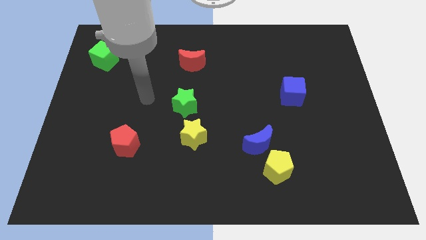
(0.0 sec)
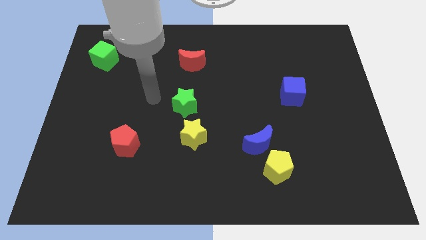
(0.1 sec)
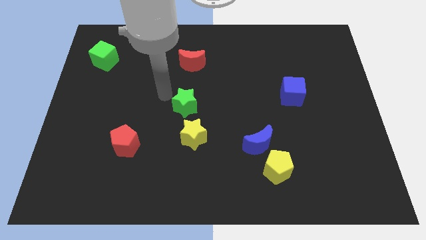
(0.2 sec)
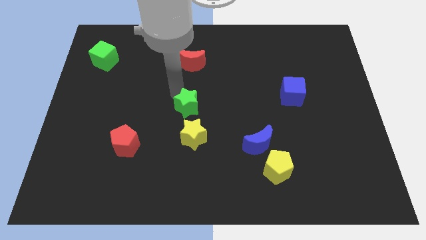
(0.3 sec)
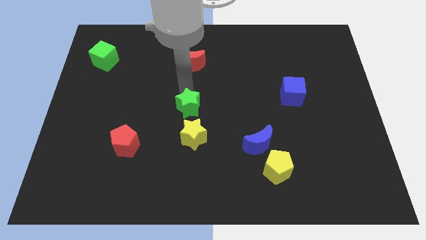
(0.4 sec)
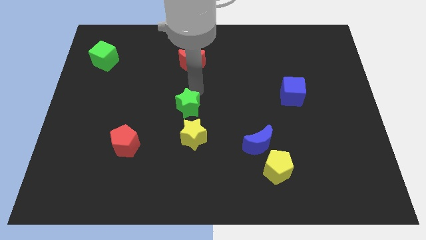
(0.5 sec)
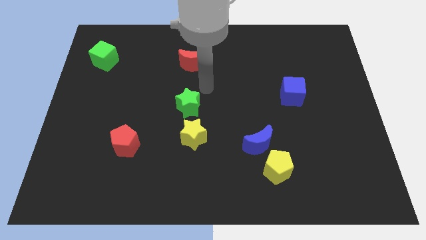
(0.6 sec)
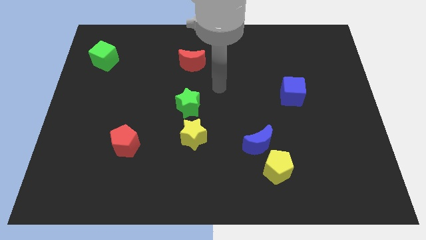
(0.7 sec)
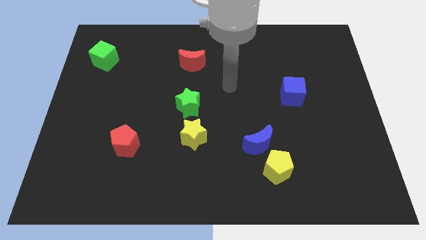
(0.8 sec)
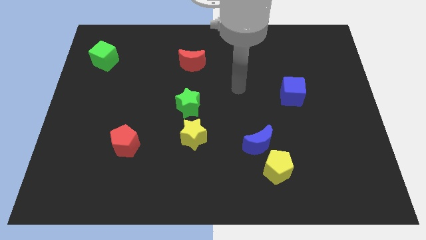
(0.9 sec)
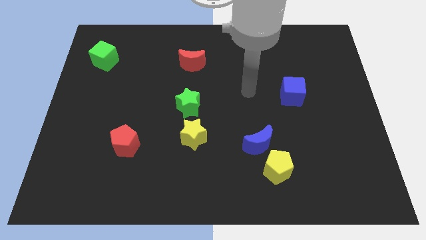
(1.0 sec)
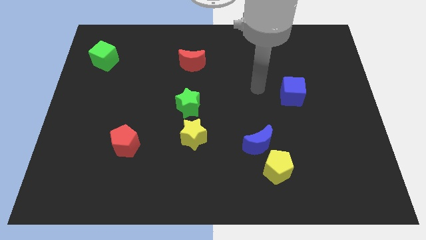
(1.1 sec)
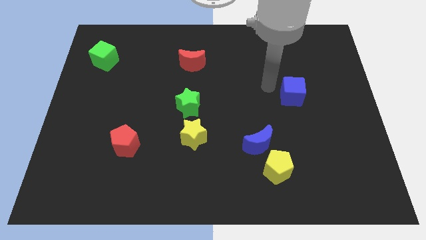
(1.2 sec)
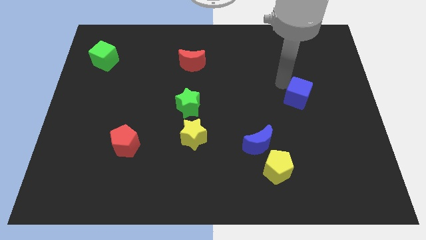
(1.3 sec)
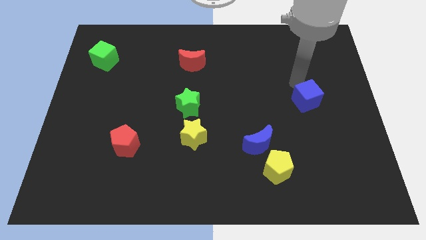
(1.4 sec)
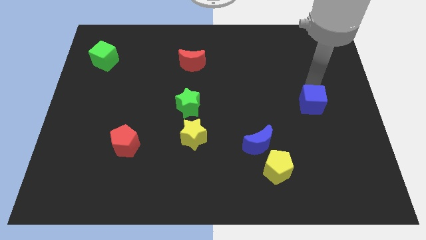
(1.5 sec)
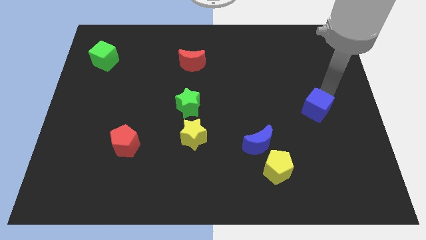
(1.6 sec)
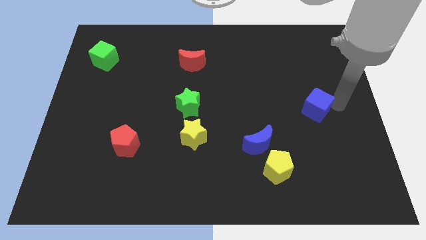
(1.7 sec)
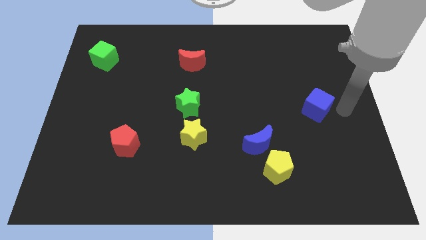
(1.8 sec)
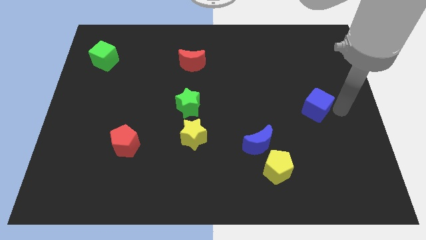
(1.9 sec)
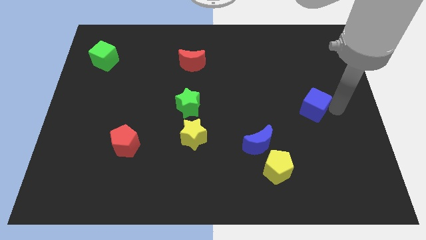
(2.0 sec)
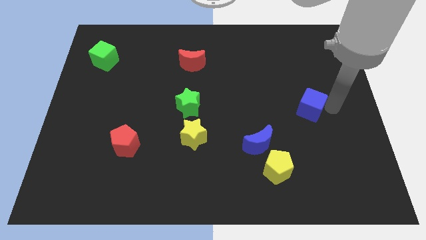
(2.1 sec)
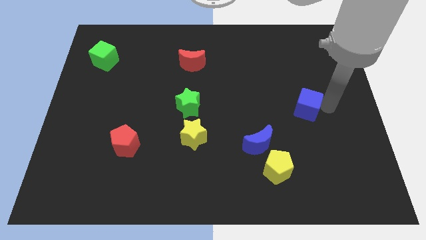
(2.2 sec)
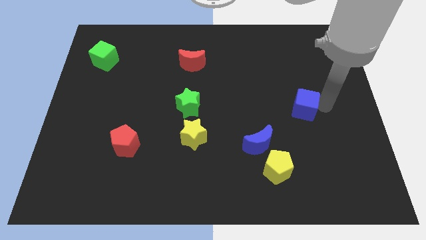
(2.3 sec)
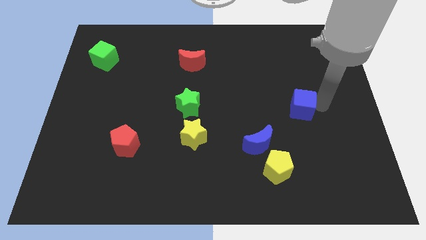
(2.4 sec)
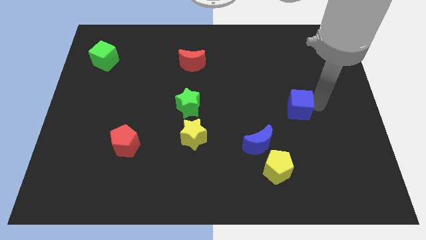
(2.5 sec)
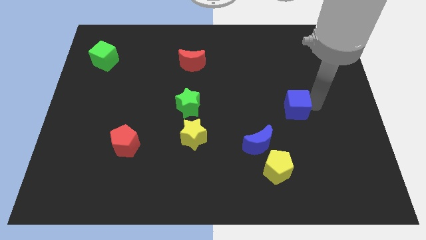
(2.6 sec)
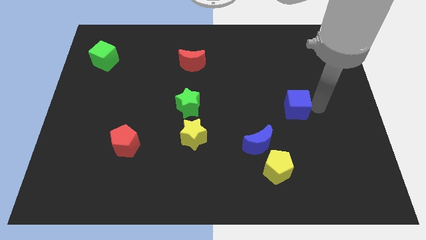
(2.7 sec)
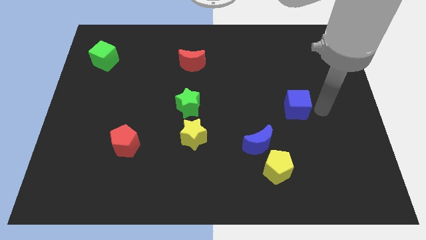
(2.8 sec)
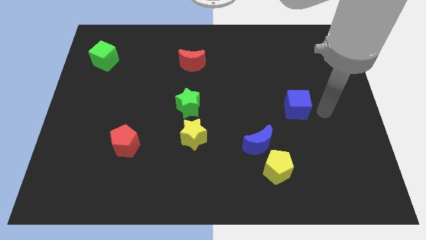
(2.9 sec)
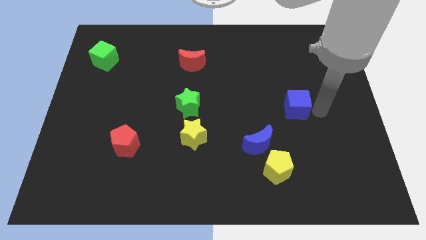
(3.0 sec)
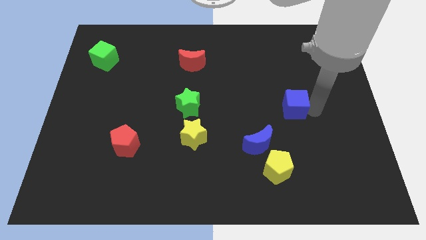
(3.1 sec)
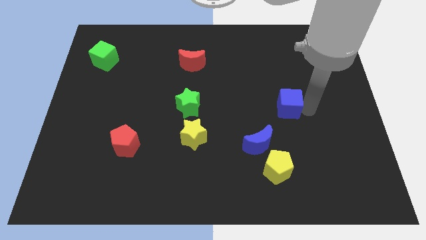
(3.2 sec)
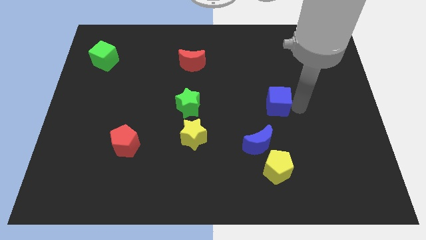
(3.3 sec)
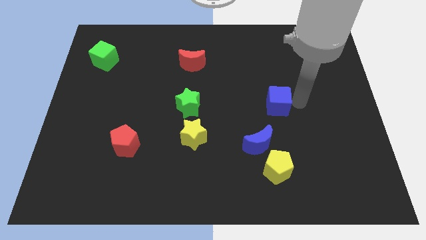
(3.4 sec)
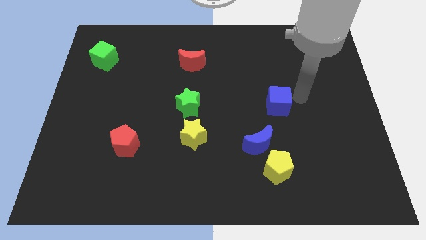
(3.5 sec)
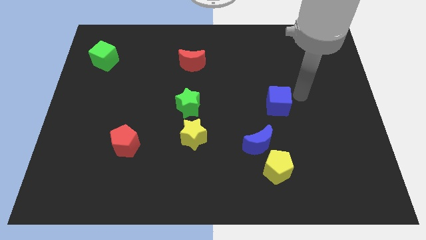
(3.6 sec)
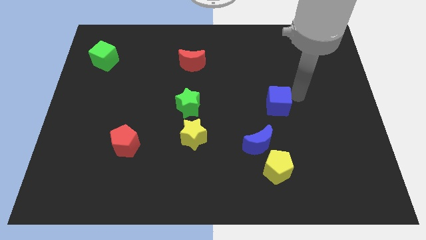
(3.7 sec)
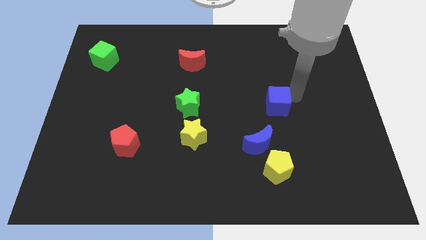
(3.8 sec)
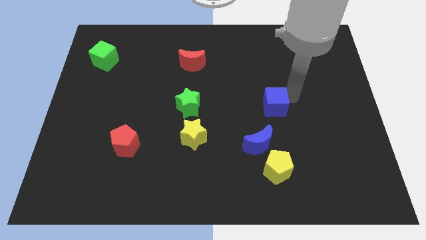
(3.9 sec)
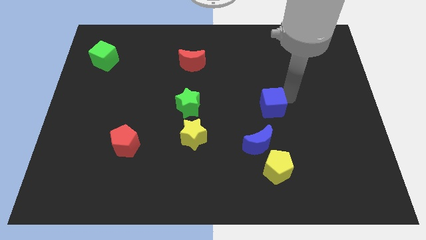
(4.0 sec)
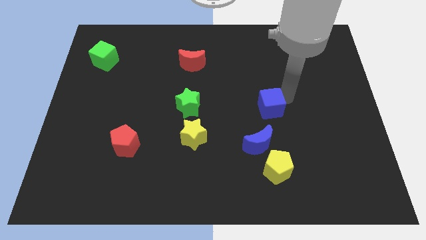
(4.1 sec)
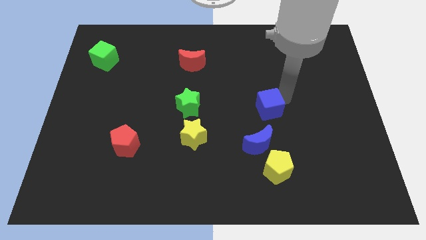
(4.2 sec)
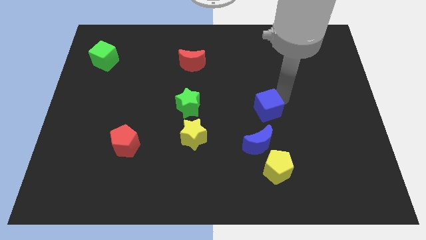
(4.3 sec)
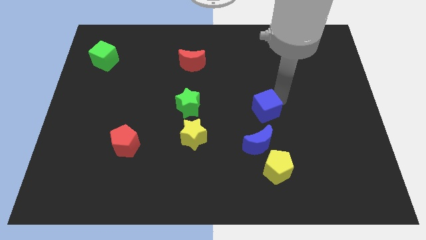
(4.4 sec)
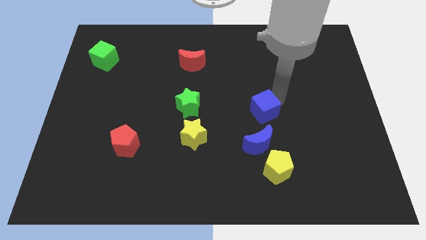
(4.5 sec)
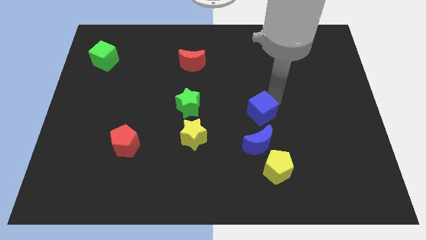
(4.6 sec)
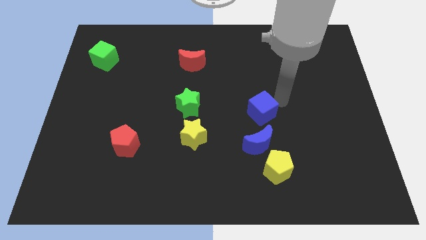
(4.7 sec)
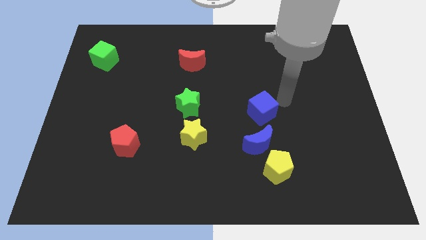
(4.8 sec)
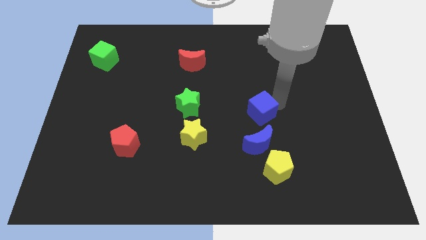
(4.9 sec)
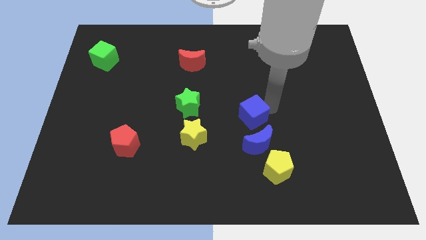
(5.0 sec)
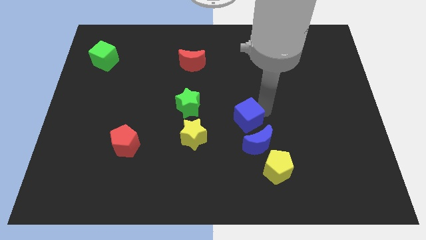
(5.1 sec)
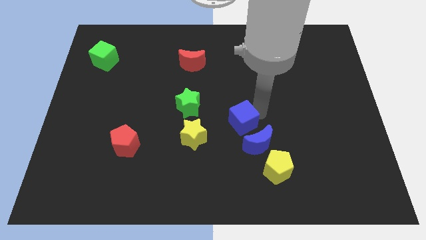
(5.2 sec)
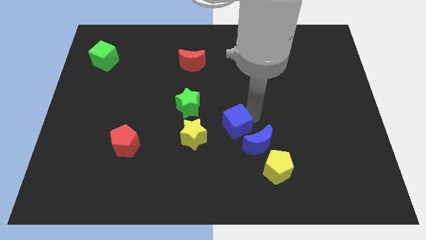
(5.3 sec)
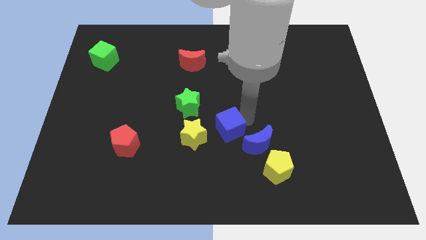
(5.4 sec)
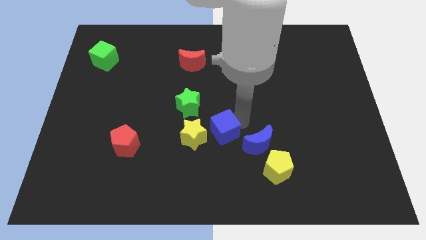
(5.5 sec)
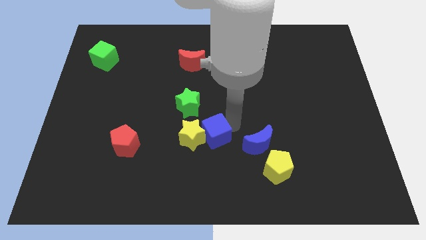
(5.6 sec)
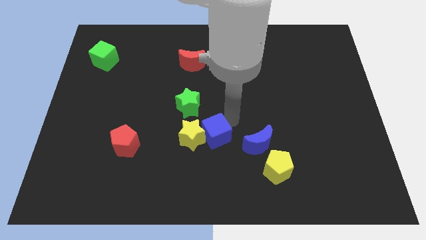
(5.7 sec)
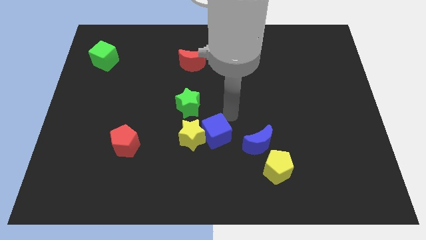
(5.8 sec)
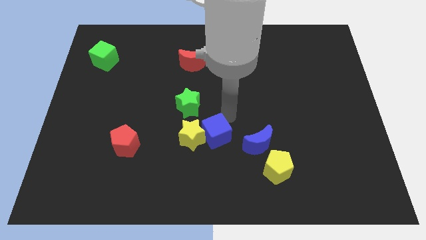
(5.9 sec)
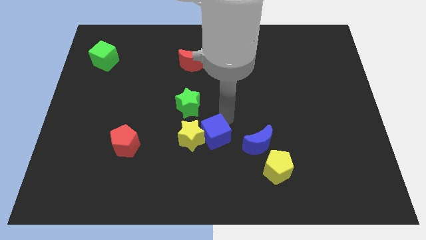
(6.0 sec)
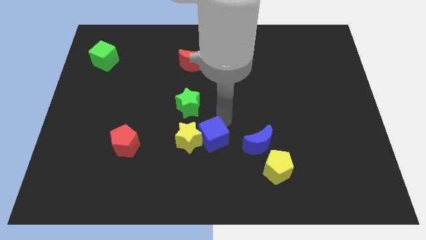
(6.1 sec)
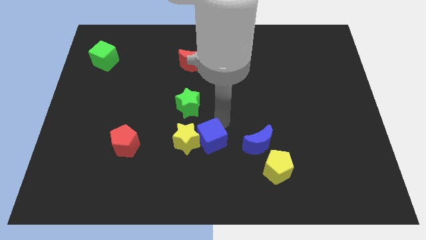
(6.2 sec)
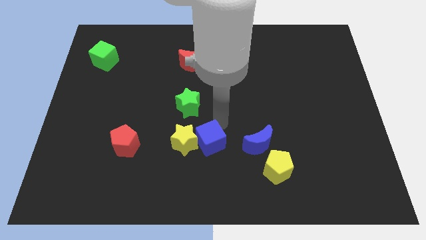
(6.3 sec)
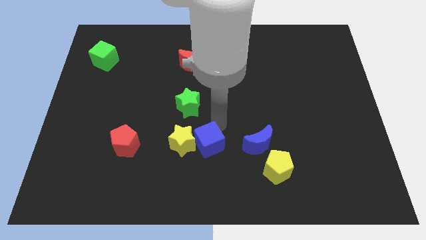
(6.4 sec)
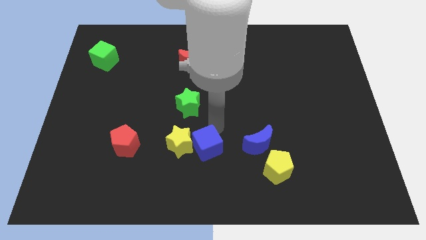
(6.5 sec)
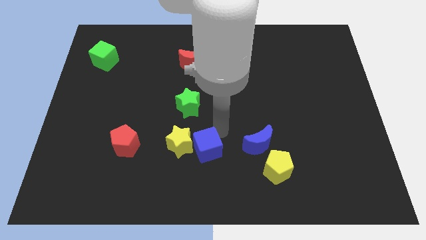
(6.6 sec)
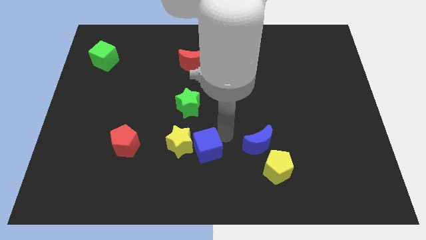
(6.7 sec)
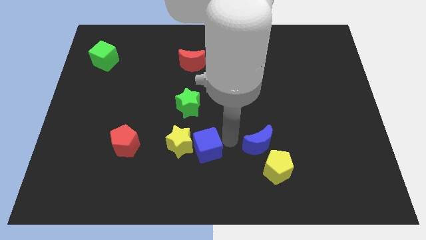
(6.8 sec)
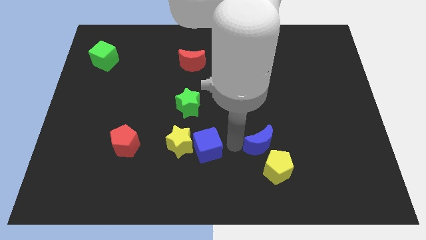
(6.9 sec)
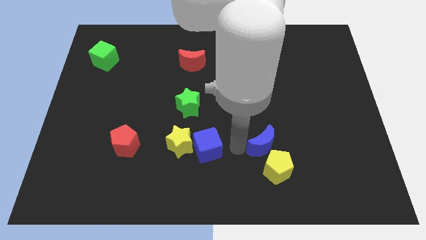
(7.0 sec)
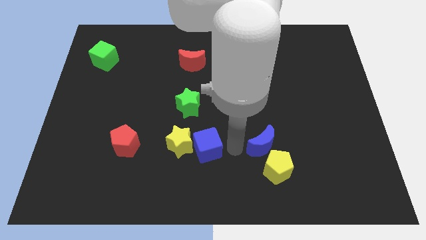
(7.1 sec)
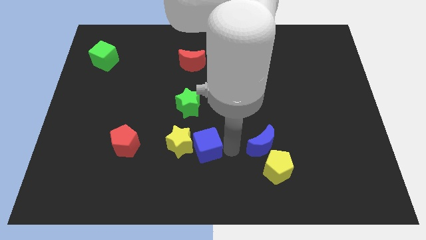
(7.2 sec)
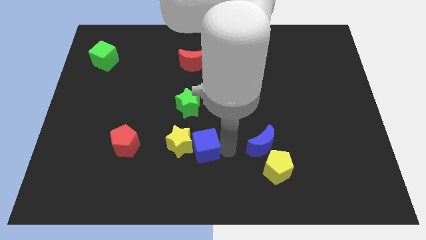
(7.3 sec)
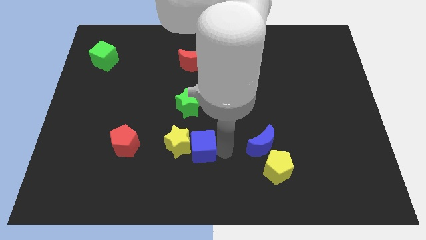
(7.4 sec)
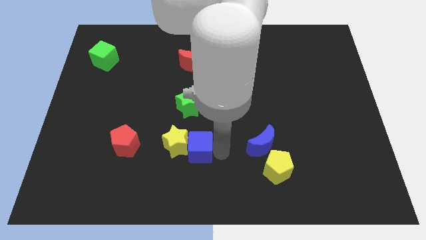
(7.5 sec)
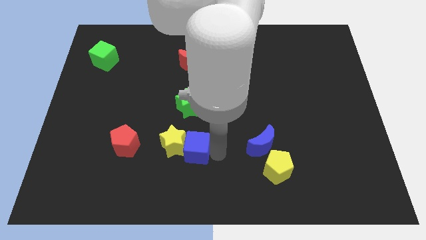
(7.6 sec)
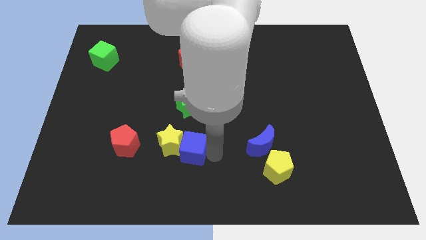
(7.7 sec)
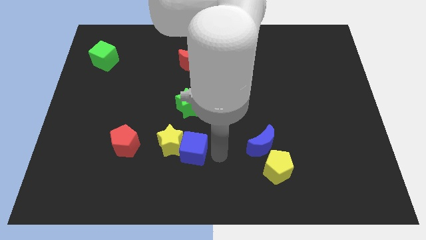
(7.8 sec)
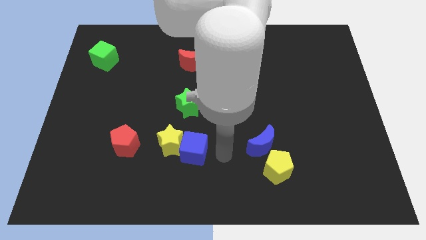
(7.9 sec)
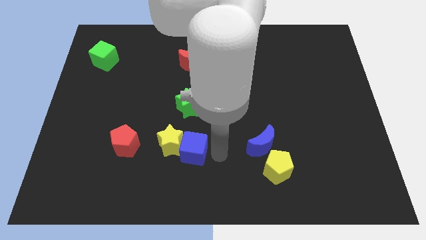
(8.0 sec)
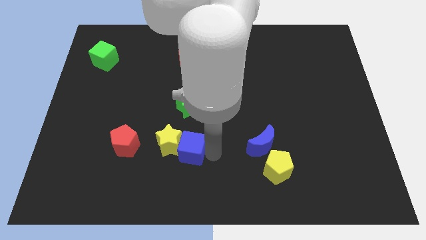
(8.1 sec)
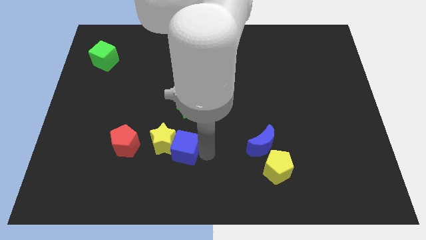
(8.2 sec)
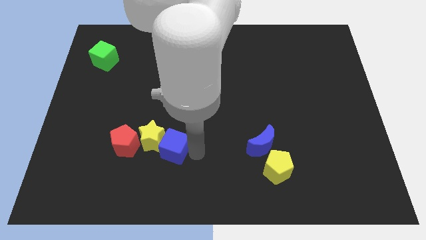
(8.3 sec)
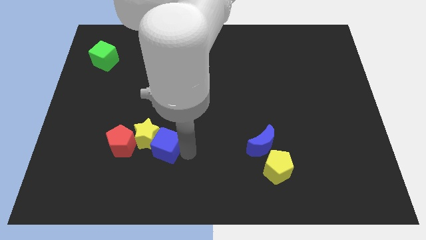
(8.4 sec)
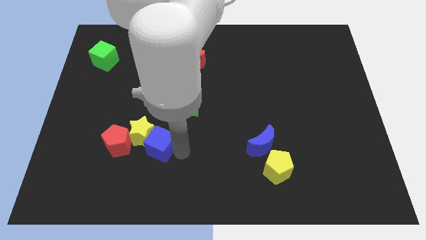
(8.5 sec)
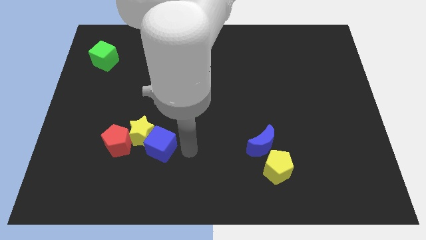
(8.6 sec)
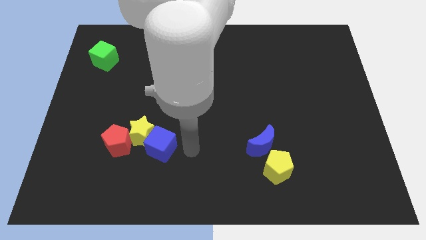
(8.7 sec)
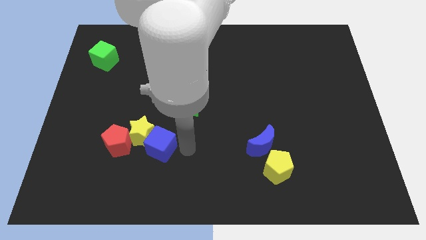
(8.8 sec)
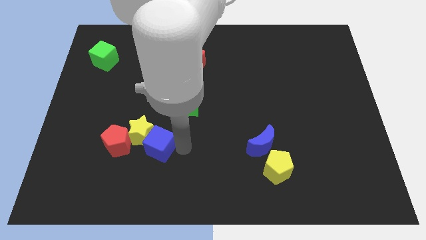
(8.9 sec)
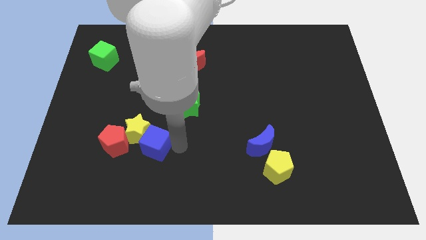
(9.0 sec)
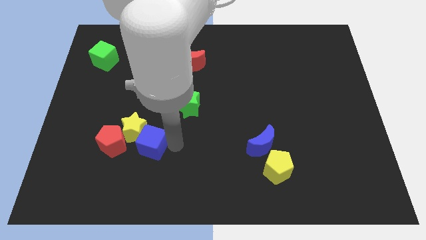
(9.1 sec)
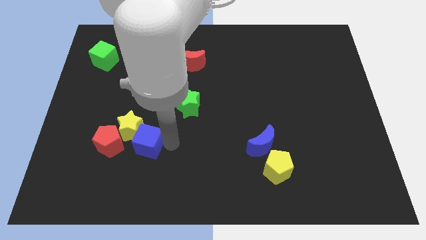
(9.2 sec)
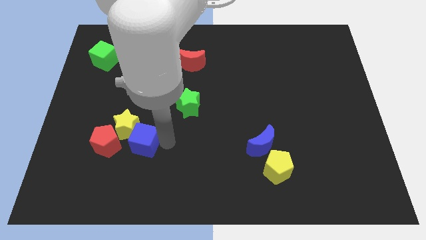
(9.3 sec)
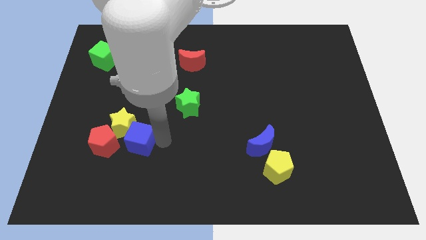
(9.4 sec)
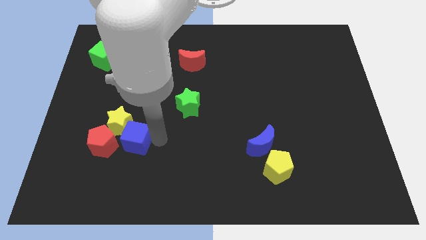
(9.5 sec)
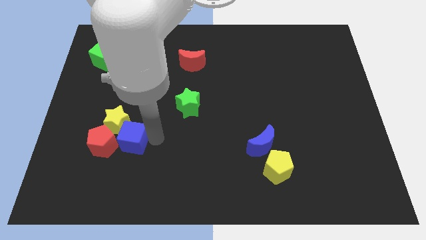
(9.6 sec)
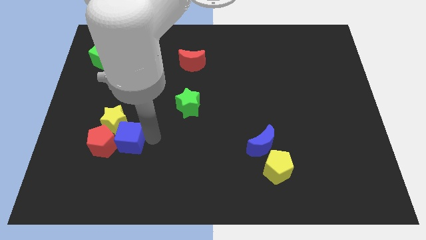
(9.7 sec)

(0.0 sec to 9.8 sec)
move the blue cube next to the red pentagon
